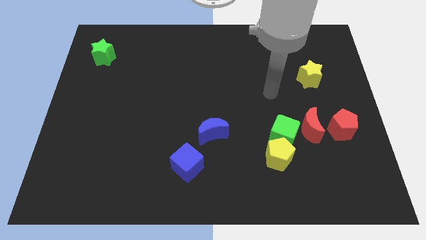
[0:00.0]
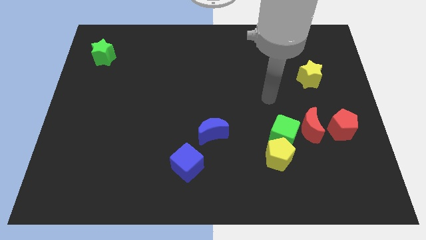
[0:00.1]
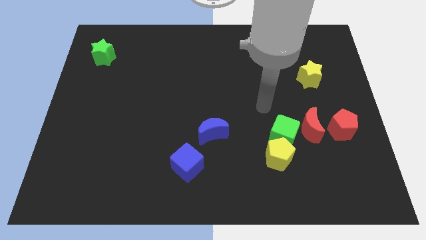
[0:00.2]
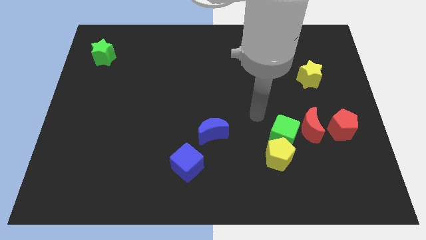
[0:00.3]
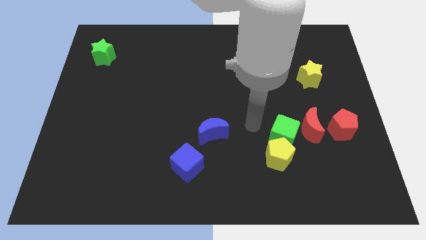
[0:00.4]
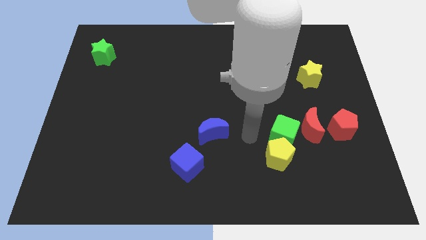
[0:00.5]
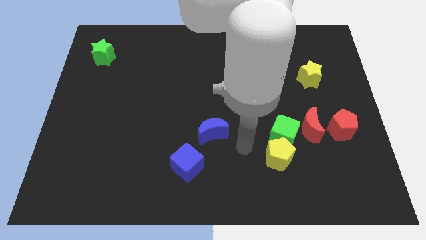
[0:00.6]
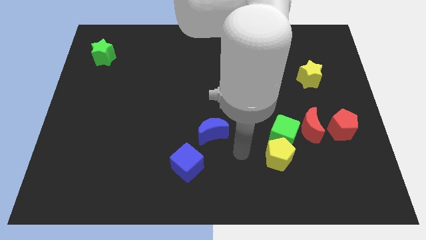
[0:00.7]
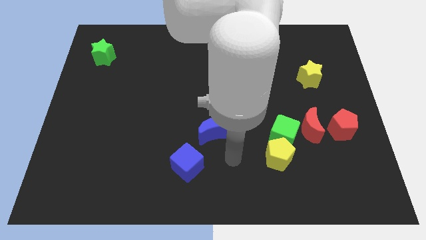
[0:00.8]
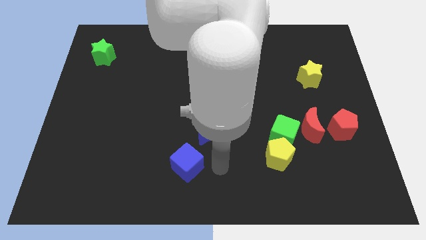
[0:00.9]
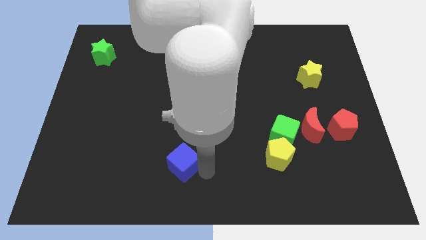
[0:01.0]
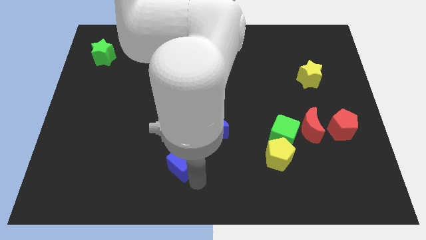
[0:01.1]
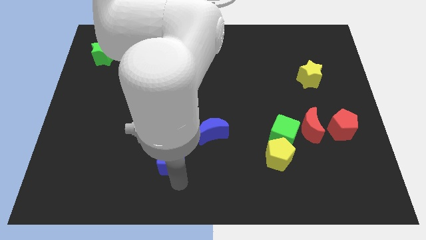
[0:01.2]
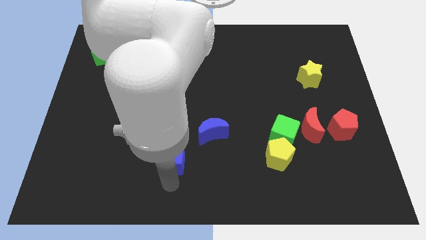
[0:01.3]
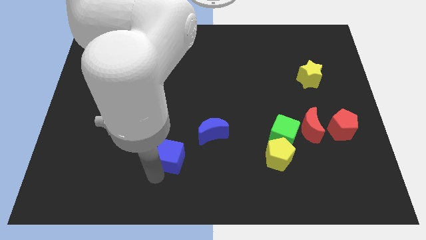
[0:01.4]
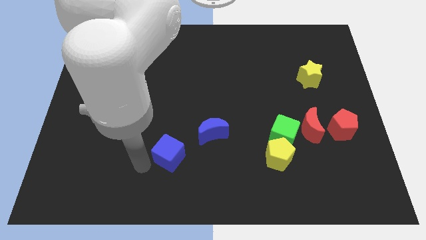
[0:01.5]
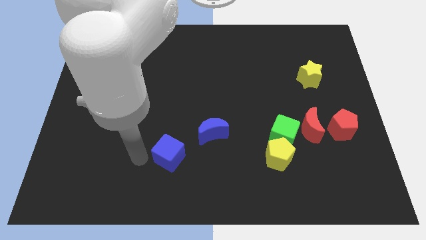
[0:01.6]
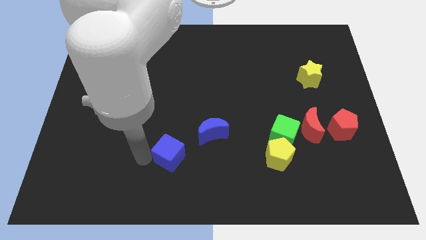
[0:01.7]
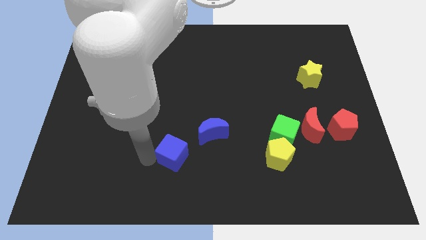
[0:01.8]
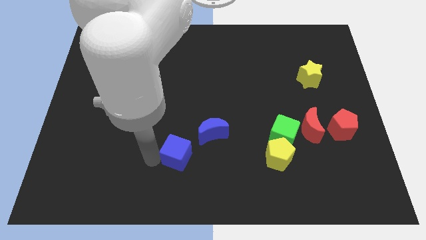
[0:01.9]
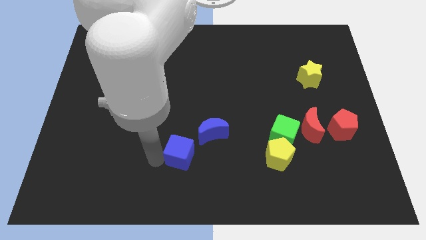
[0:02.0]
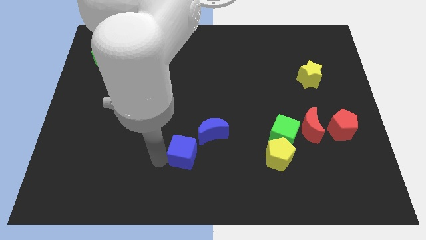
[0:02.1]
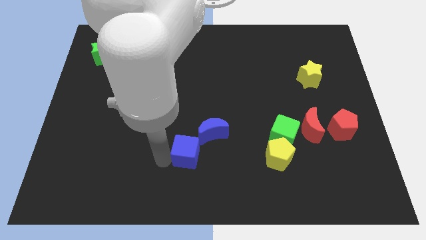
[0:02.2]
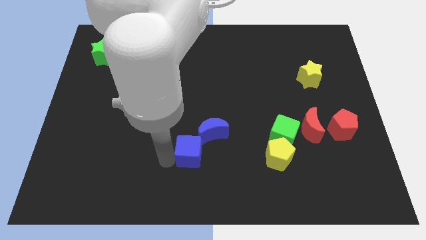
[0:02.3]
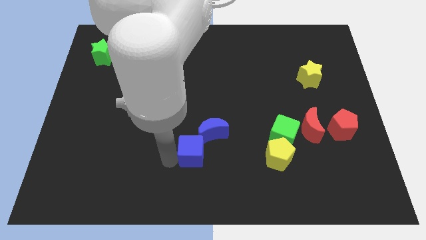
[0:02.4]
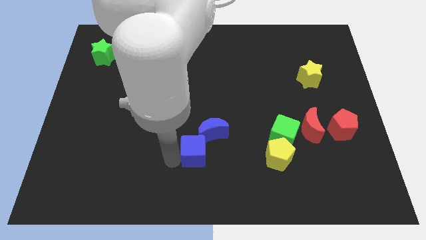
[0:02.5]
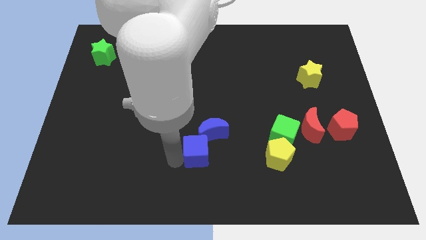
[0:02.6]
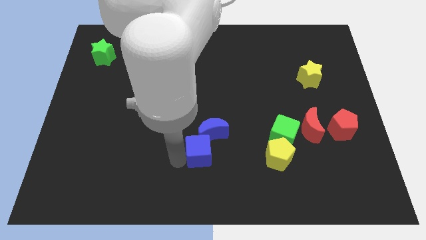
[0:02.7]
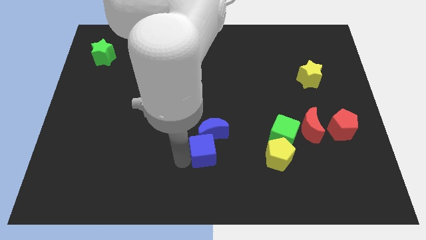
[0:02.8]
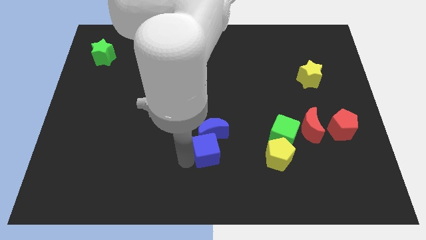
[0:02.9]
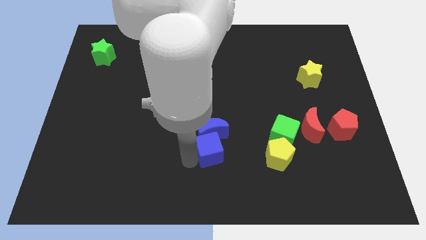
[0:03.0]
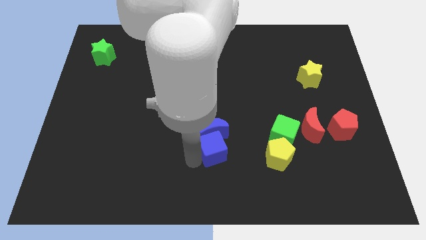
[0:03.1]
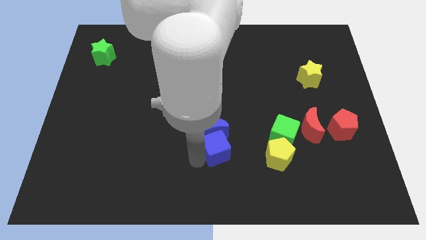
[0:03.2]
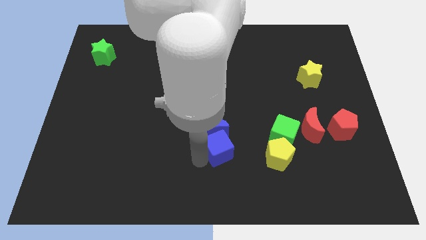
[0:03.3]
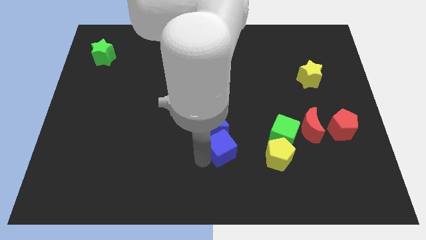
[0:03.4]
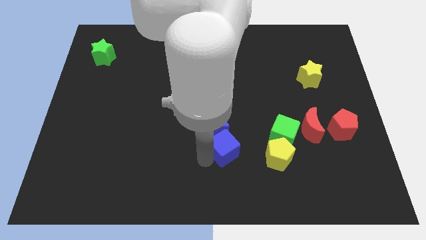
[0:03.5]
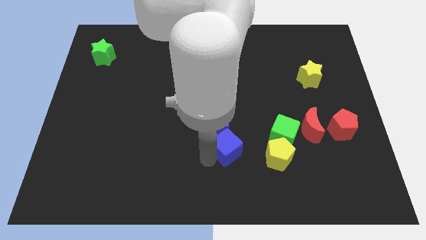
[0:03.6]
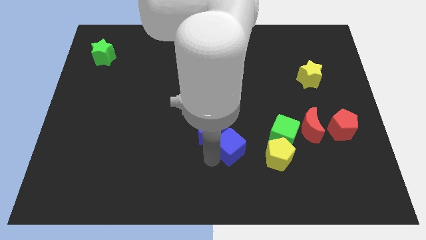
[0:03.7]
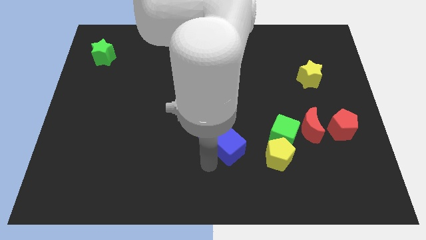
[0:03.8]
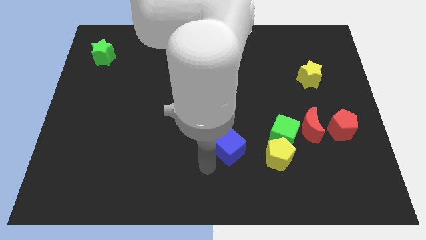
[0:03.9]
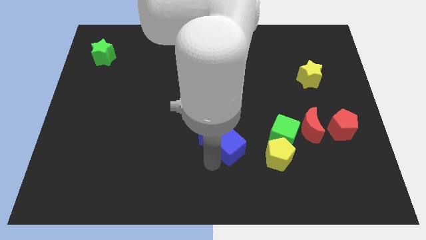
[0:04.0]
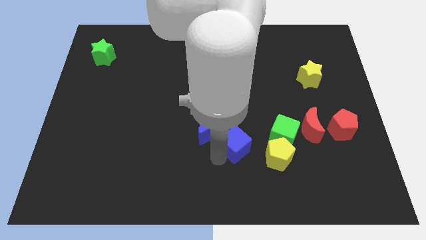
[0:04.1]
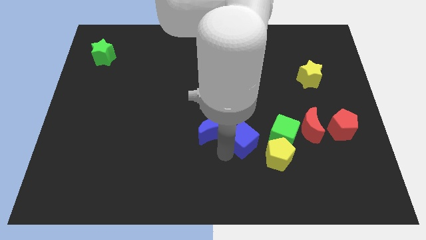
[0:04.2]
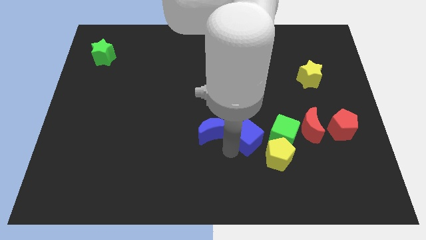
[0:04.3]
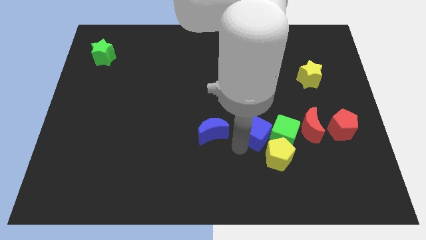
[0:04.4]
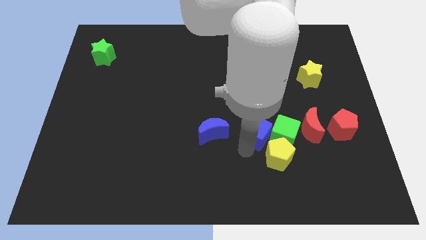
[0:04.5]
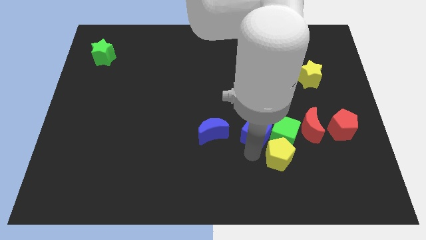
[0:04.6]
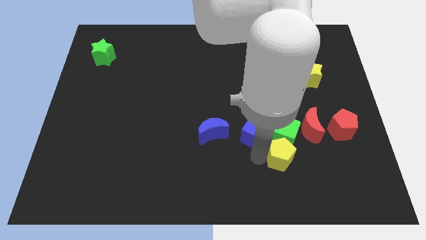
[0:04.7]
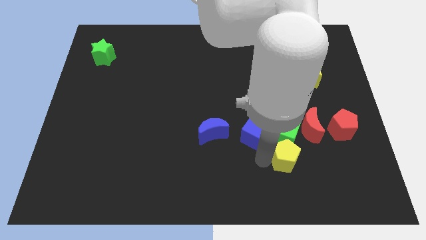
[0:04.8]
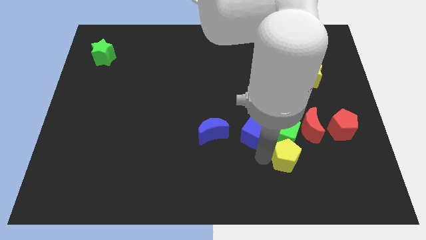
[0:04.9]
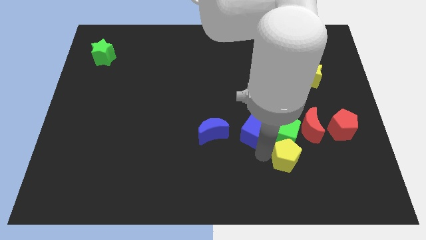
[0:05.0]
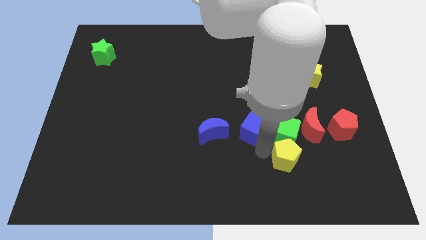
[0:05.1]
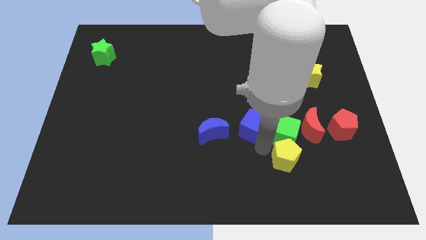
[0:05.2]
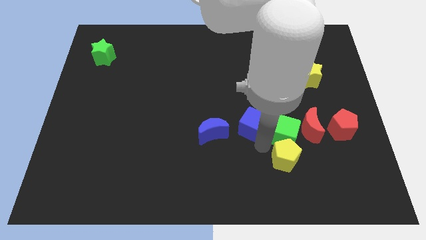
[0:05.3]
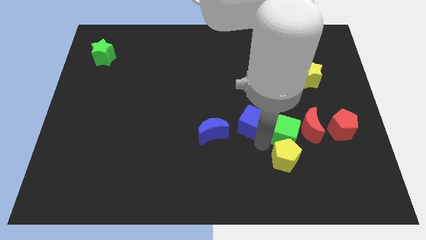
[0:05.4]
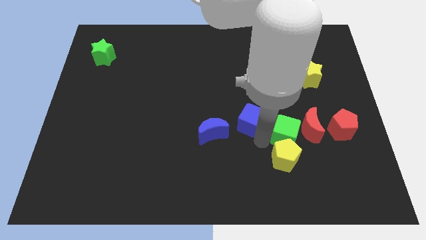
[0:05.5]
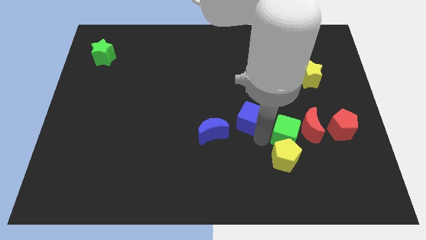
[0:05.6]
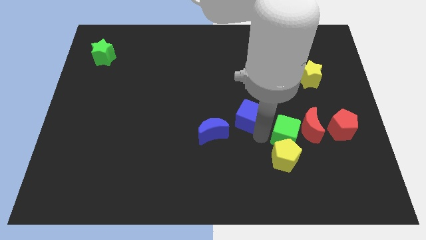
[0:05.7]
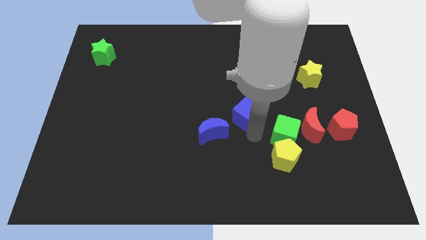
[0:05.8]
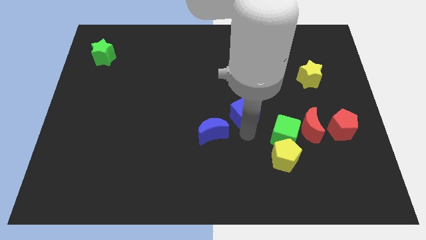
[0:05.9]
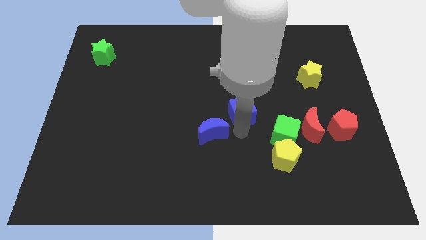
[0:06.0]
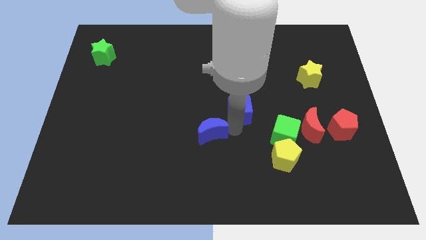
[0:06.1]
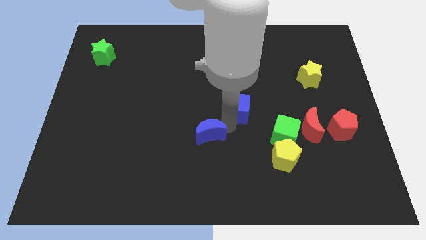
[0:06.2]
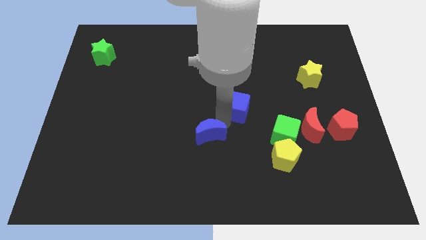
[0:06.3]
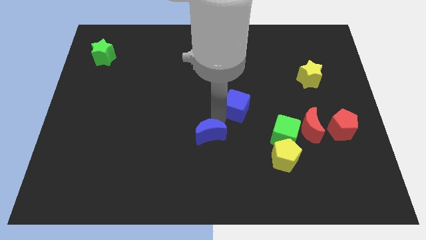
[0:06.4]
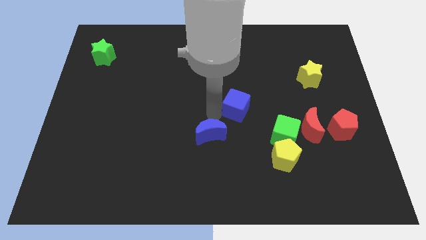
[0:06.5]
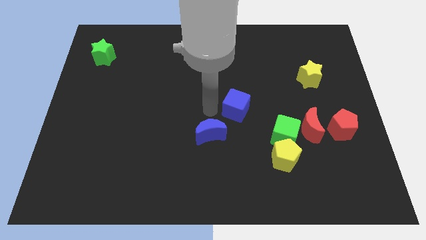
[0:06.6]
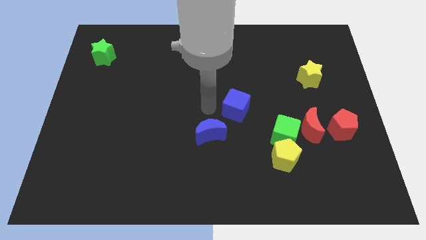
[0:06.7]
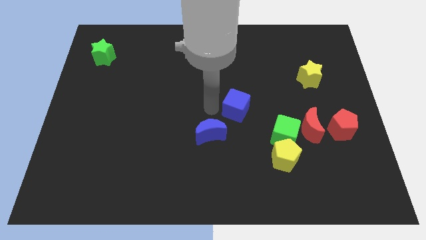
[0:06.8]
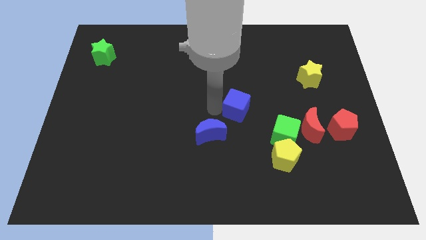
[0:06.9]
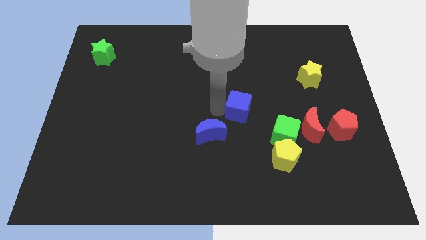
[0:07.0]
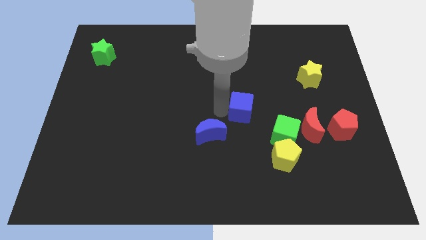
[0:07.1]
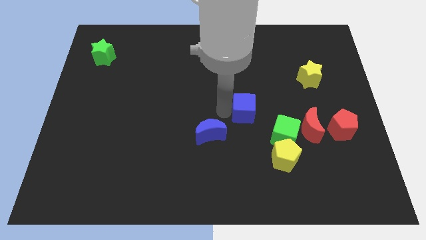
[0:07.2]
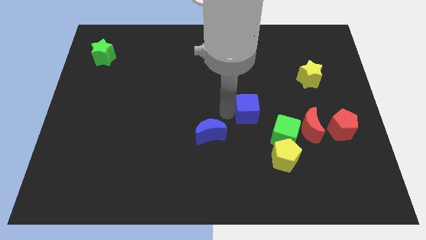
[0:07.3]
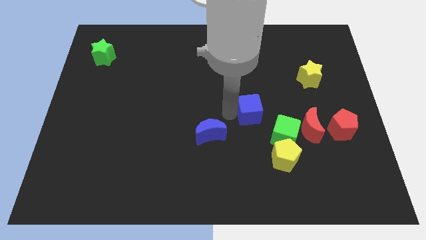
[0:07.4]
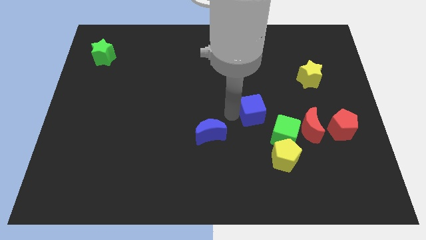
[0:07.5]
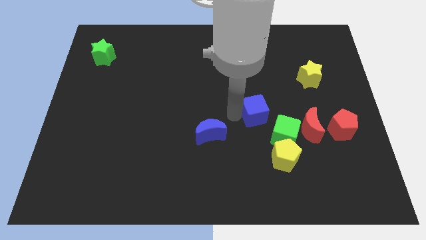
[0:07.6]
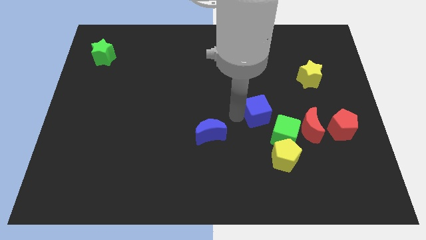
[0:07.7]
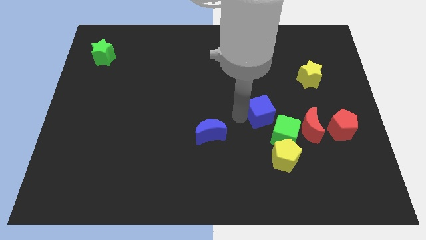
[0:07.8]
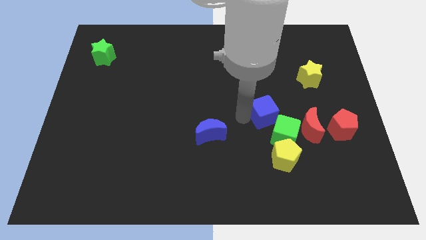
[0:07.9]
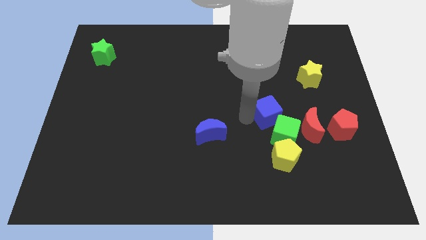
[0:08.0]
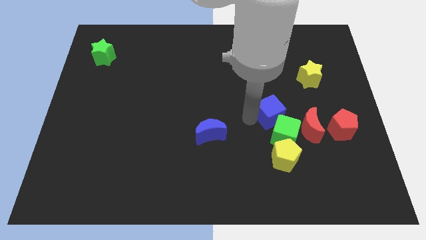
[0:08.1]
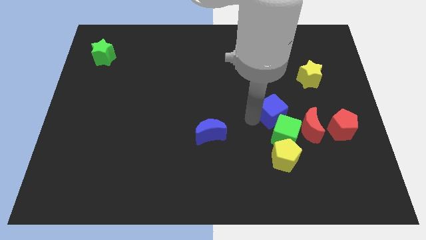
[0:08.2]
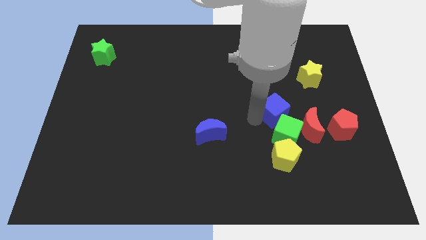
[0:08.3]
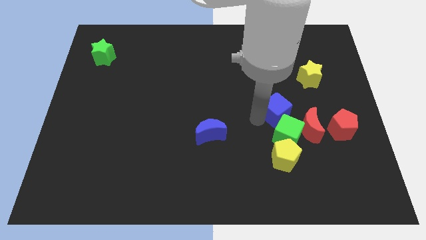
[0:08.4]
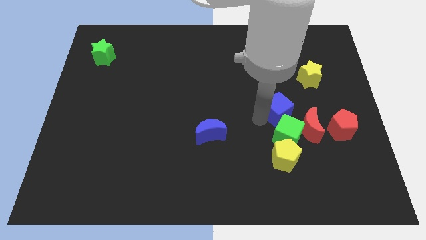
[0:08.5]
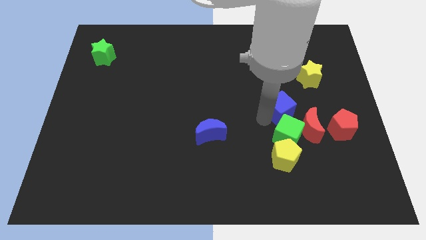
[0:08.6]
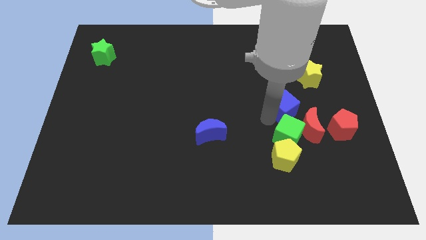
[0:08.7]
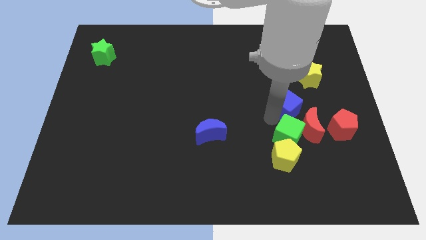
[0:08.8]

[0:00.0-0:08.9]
slide the blue cube to the top side of the red moon
